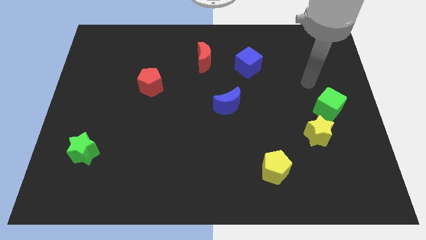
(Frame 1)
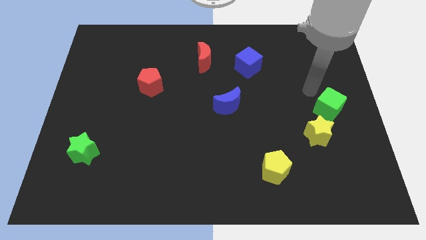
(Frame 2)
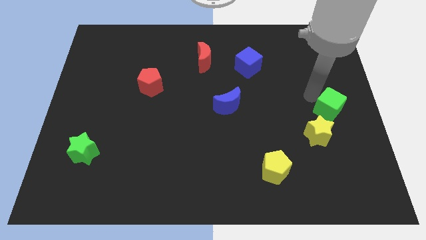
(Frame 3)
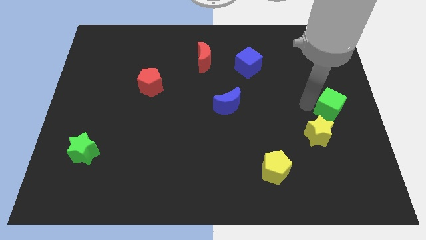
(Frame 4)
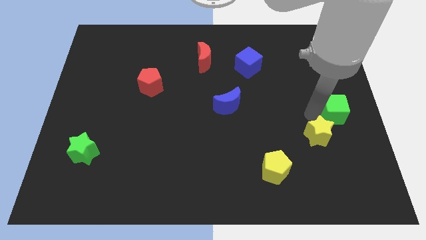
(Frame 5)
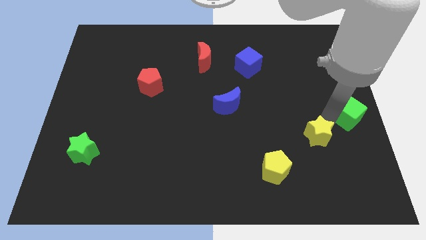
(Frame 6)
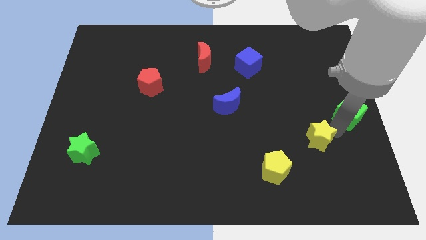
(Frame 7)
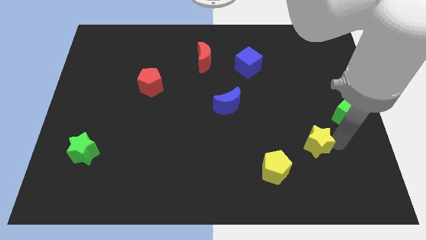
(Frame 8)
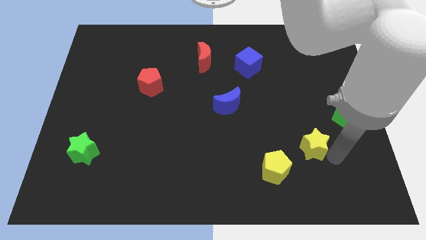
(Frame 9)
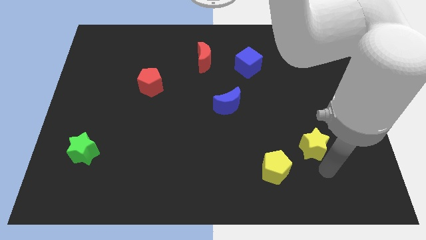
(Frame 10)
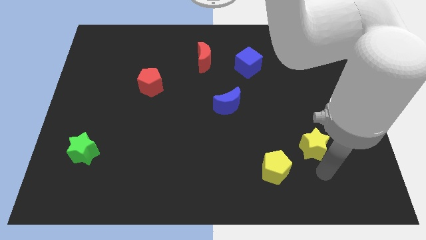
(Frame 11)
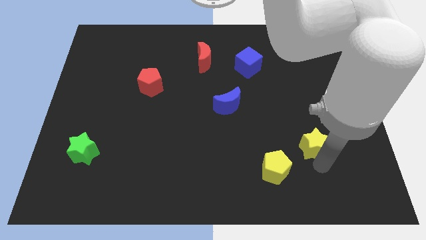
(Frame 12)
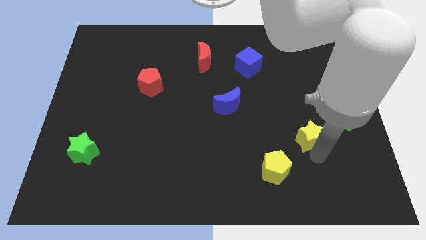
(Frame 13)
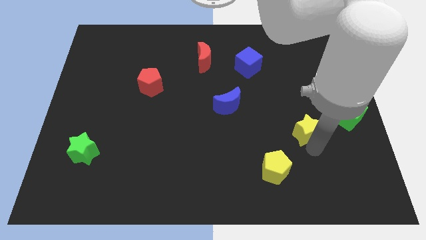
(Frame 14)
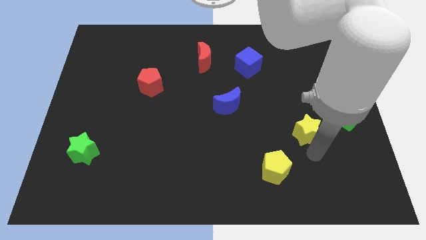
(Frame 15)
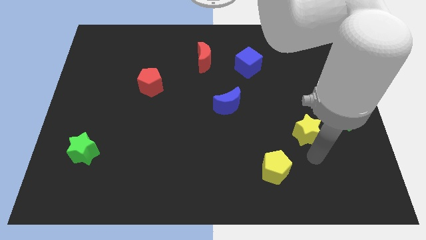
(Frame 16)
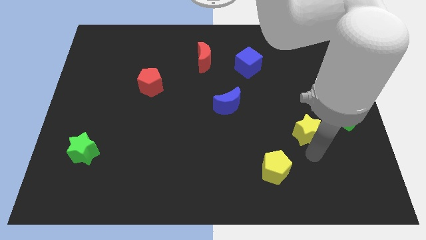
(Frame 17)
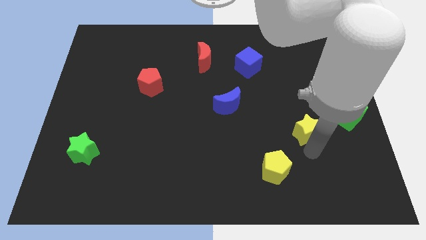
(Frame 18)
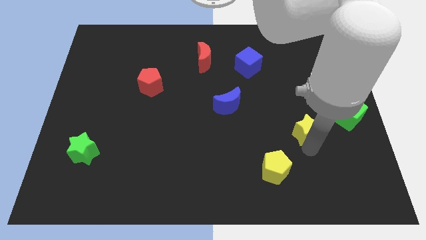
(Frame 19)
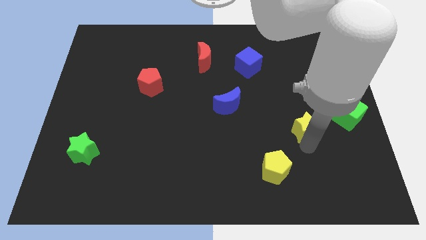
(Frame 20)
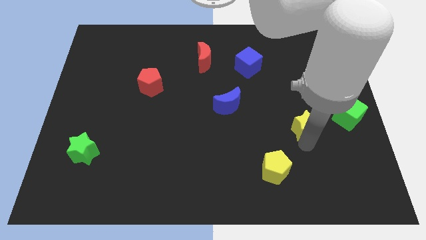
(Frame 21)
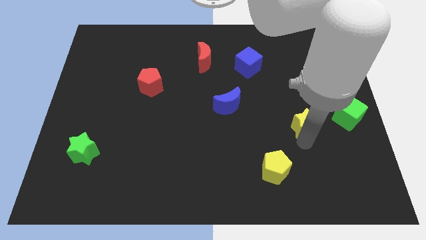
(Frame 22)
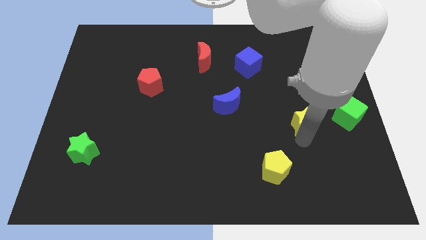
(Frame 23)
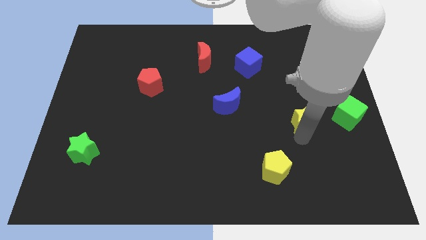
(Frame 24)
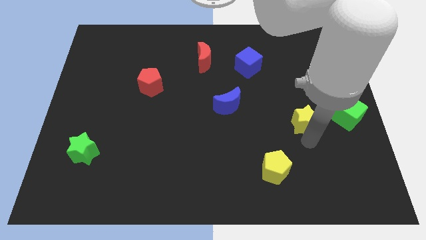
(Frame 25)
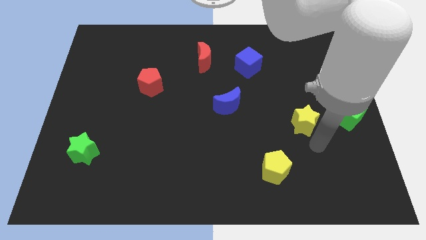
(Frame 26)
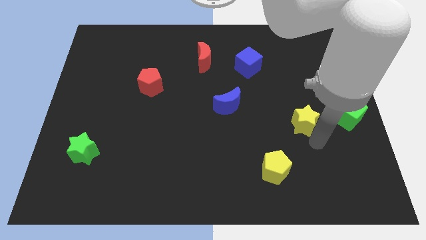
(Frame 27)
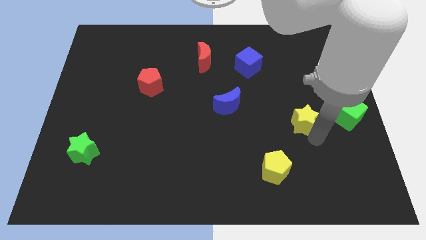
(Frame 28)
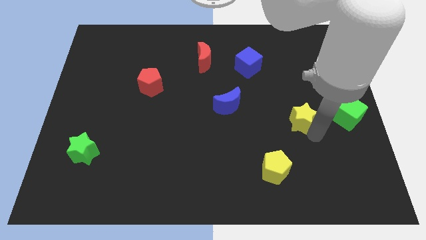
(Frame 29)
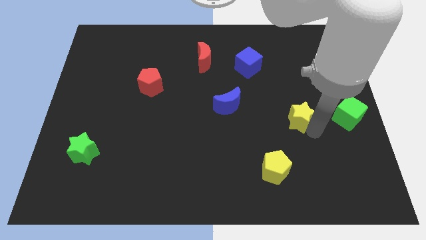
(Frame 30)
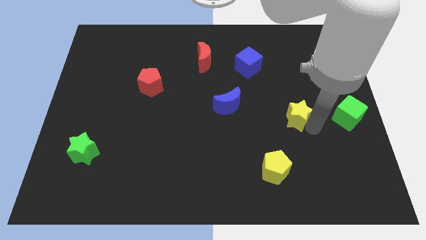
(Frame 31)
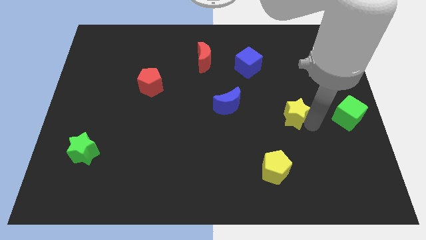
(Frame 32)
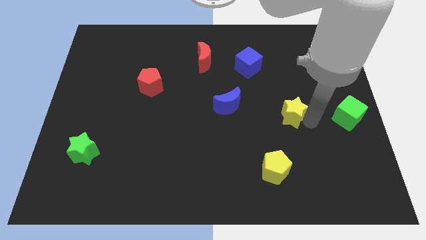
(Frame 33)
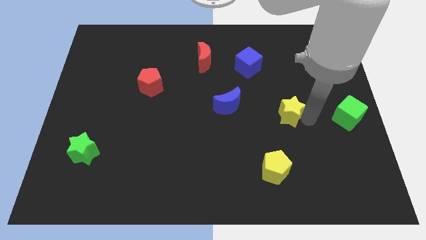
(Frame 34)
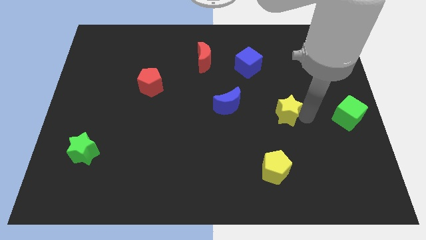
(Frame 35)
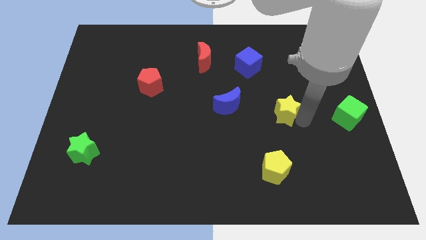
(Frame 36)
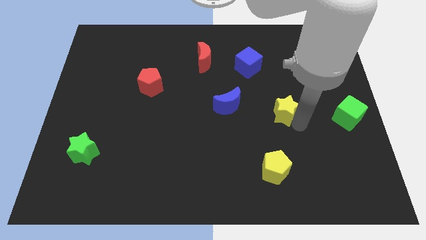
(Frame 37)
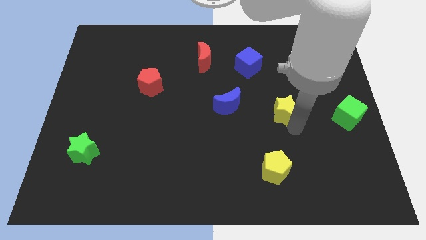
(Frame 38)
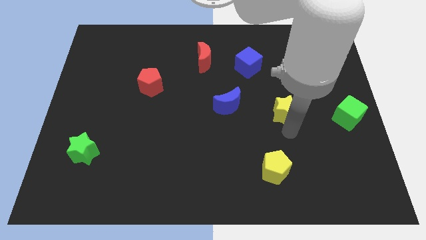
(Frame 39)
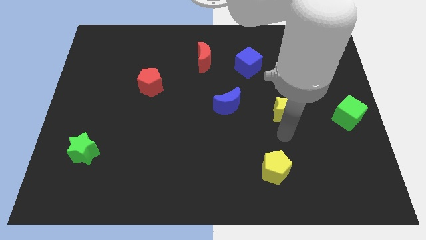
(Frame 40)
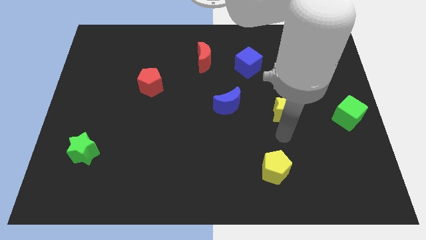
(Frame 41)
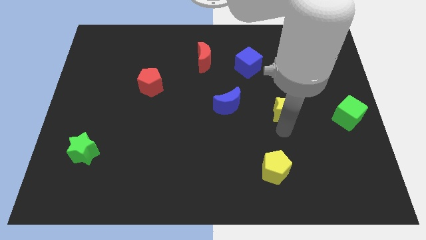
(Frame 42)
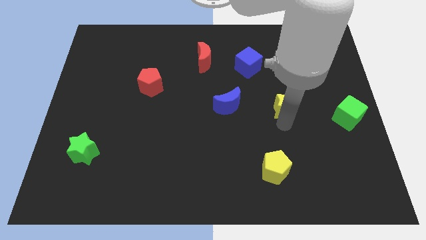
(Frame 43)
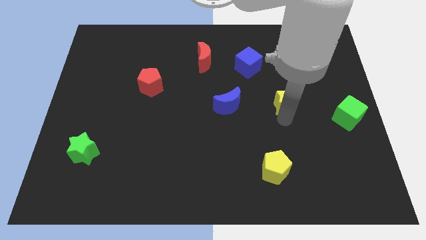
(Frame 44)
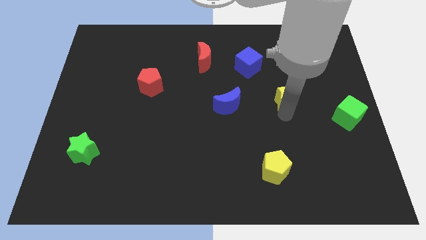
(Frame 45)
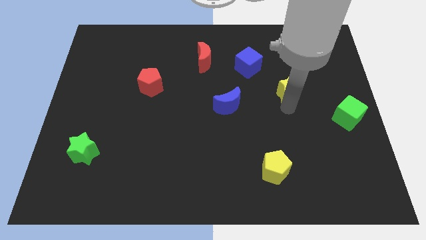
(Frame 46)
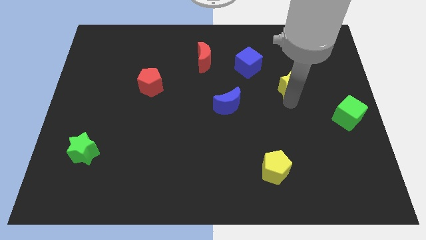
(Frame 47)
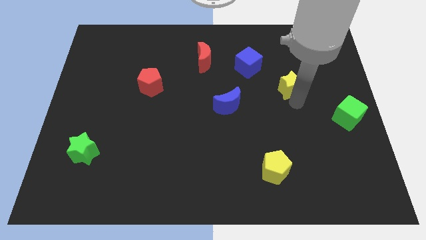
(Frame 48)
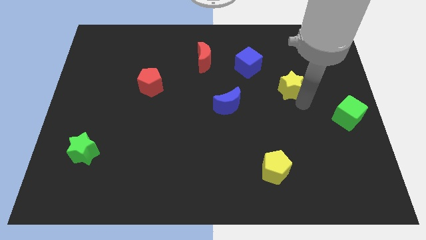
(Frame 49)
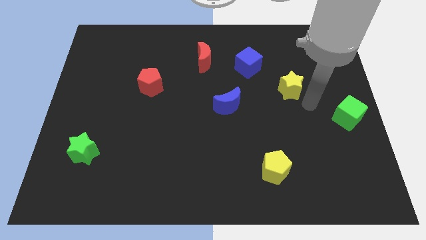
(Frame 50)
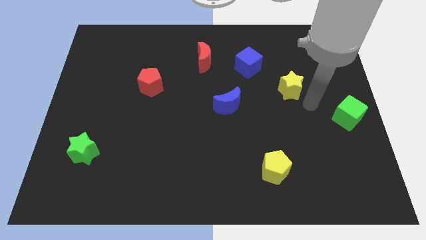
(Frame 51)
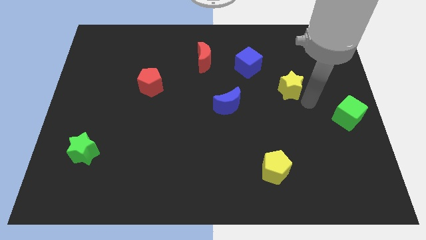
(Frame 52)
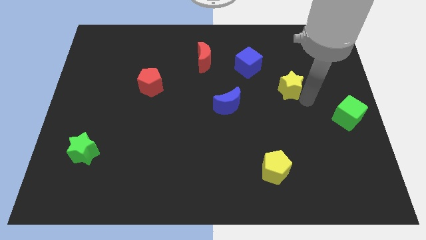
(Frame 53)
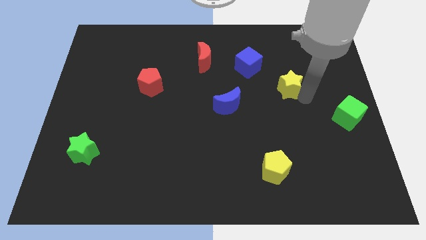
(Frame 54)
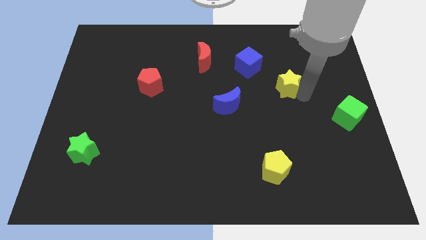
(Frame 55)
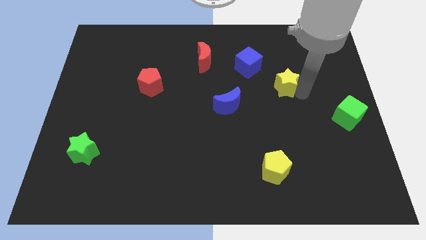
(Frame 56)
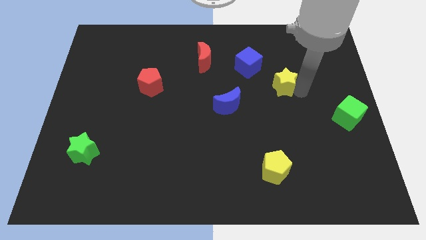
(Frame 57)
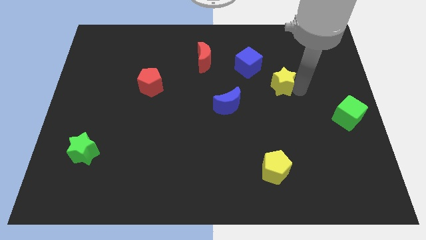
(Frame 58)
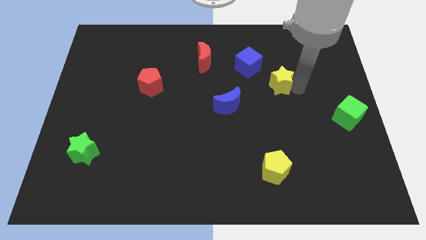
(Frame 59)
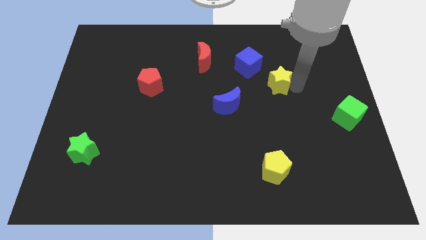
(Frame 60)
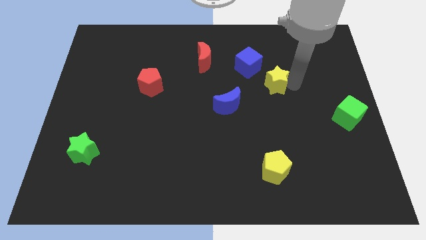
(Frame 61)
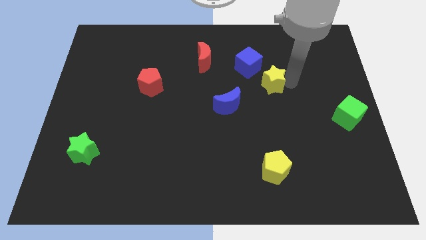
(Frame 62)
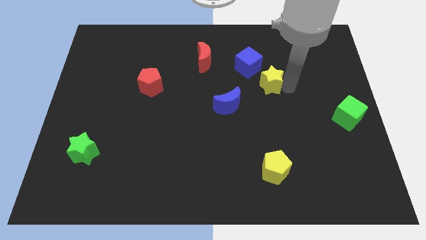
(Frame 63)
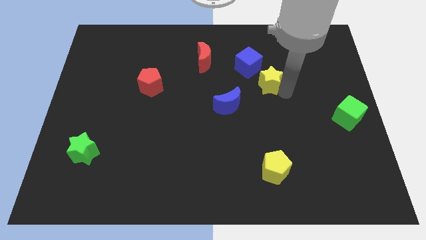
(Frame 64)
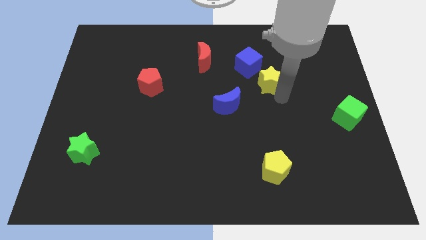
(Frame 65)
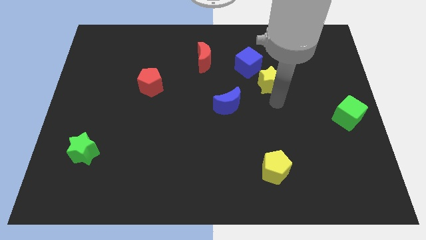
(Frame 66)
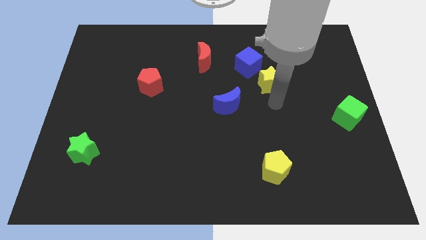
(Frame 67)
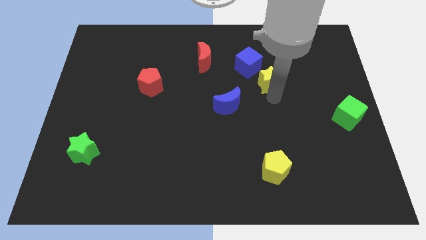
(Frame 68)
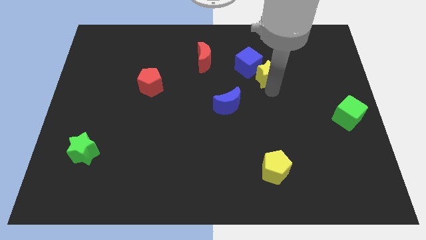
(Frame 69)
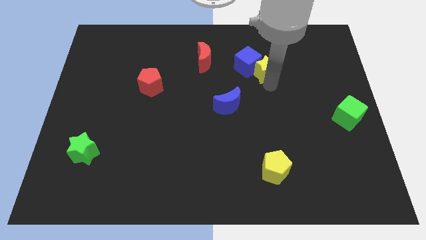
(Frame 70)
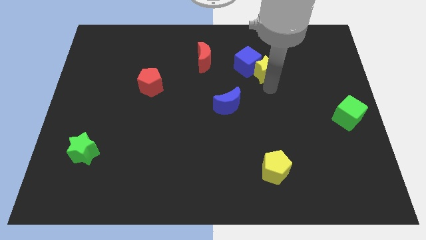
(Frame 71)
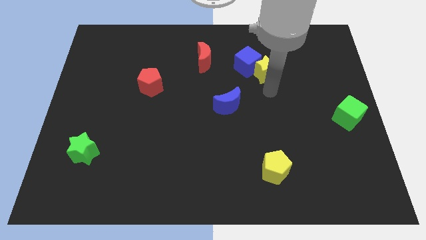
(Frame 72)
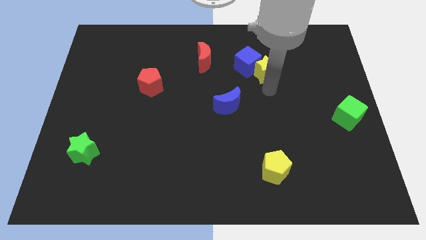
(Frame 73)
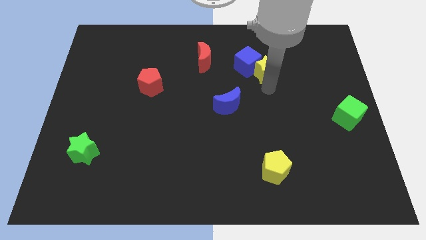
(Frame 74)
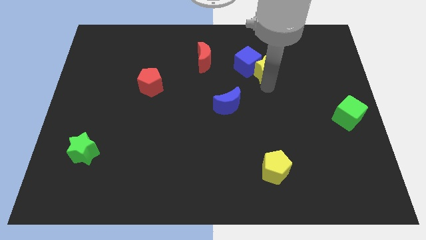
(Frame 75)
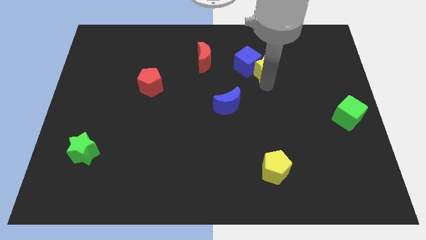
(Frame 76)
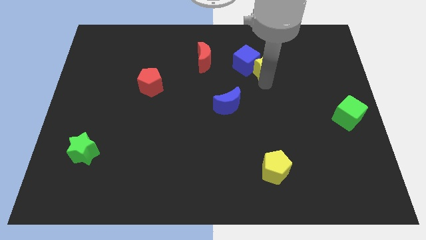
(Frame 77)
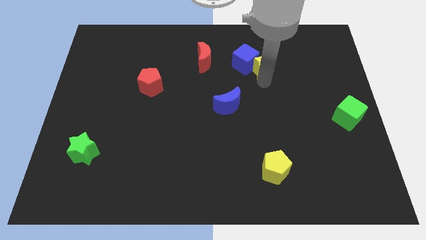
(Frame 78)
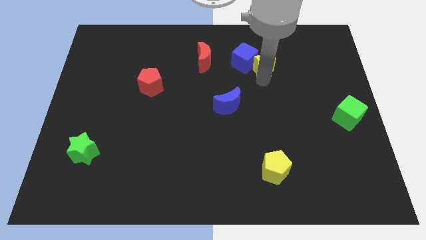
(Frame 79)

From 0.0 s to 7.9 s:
move the yellow star to the right of the red moon
